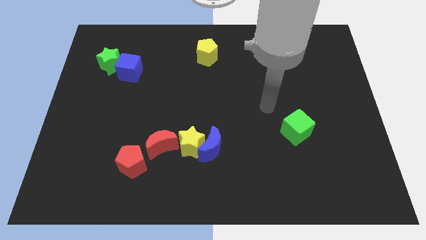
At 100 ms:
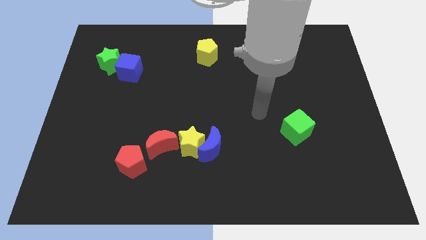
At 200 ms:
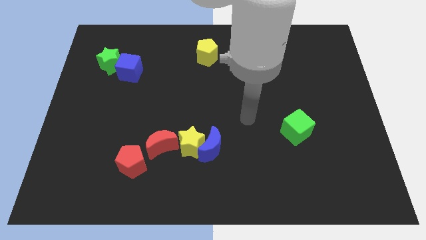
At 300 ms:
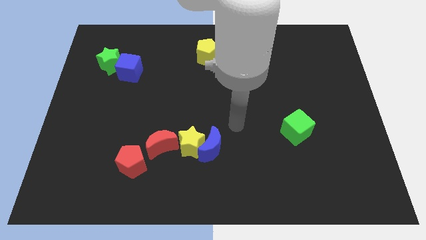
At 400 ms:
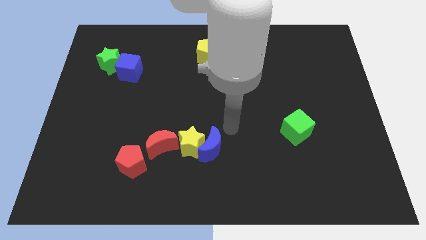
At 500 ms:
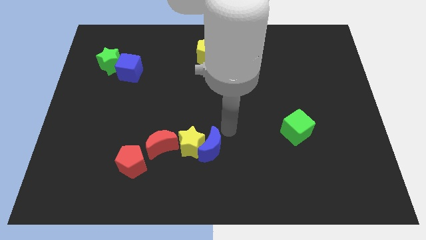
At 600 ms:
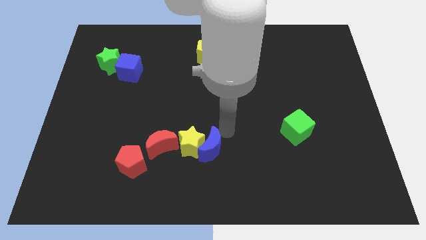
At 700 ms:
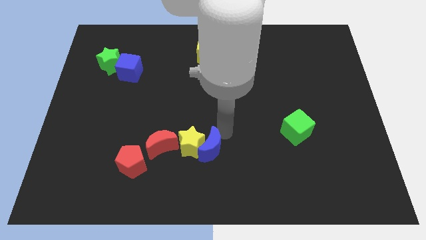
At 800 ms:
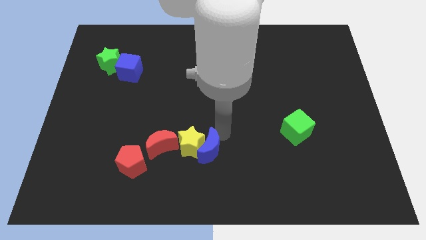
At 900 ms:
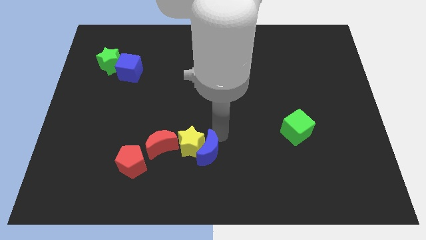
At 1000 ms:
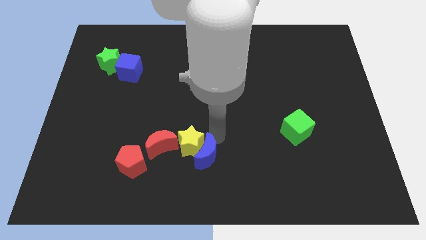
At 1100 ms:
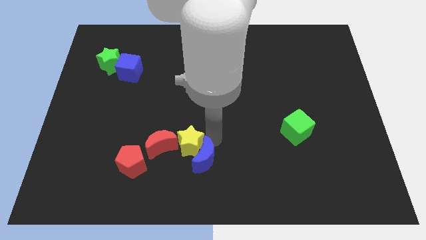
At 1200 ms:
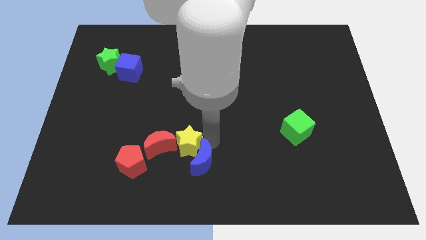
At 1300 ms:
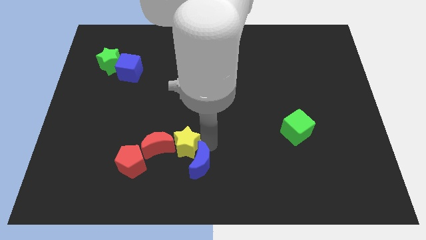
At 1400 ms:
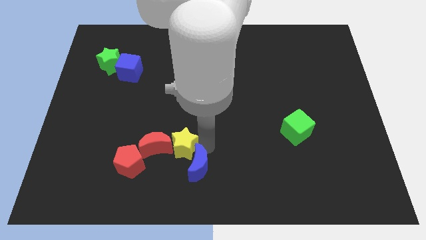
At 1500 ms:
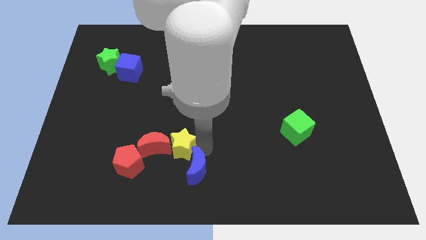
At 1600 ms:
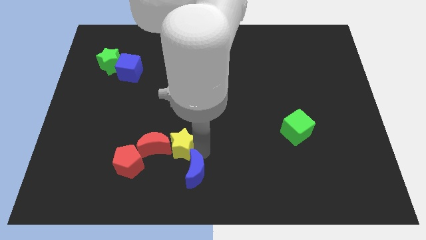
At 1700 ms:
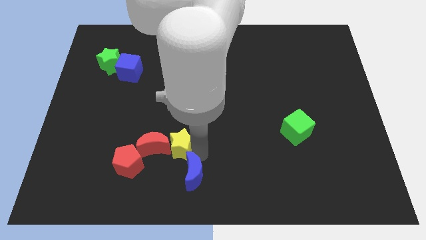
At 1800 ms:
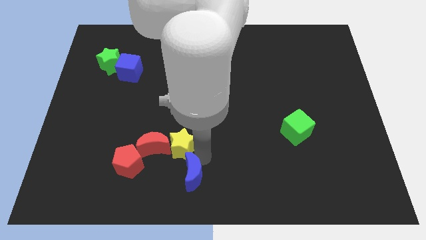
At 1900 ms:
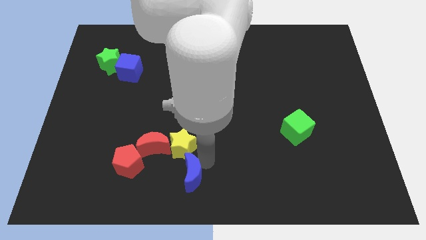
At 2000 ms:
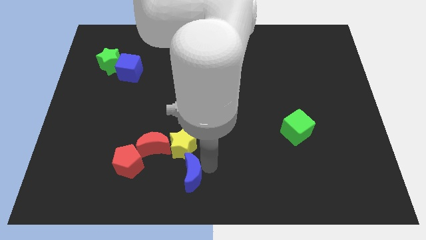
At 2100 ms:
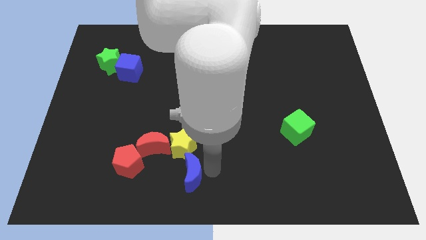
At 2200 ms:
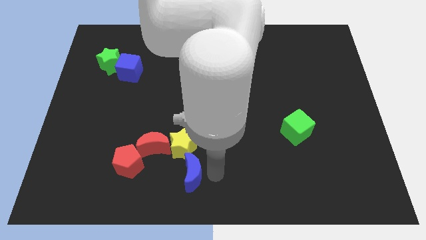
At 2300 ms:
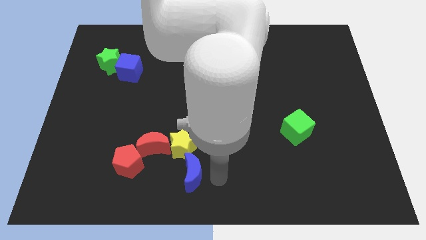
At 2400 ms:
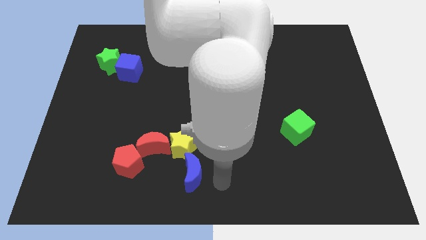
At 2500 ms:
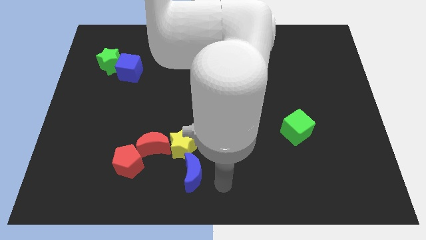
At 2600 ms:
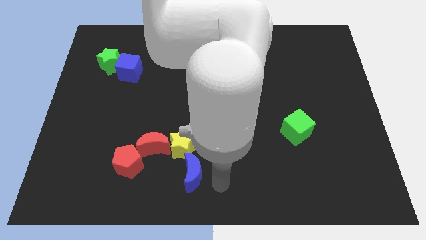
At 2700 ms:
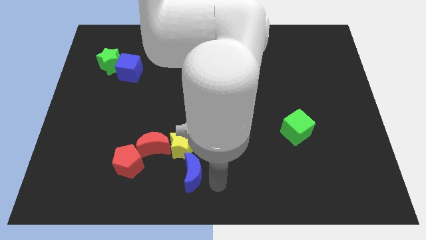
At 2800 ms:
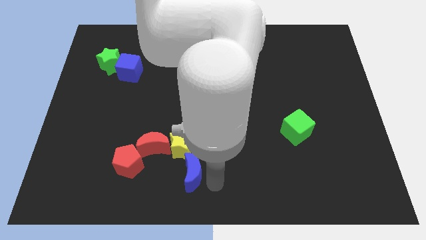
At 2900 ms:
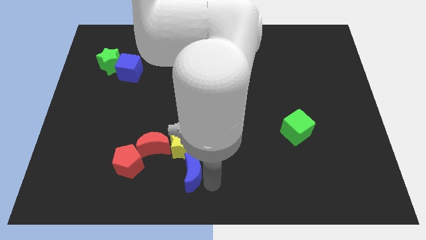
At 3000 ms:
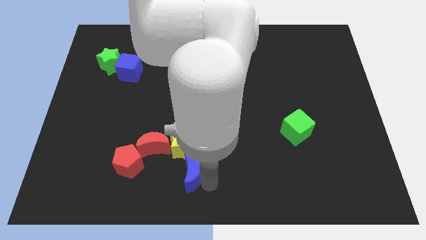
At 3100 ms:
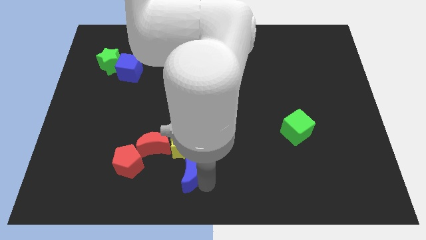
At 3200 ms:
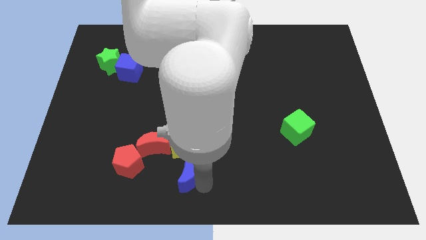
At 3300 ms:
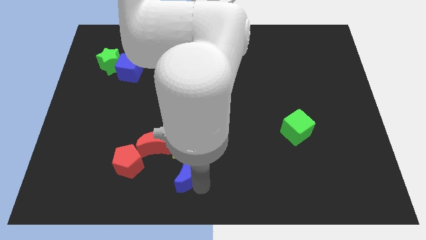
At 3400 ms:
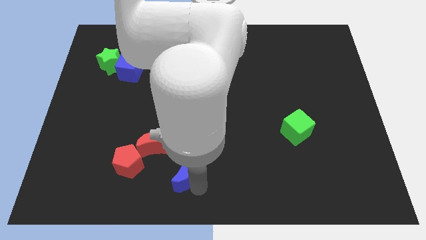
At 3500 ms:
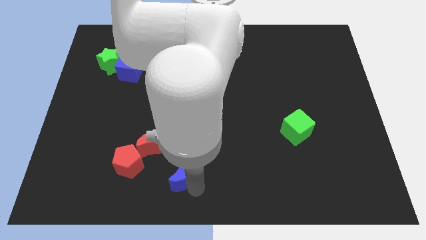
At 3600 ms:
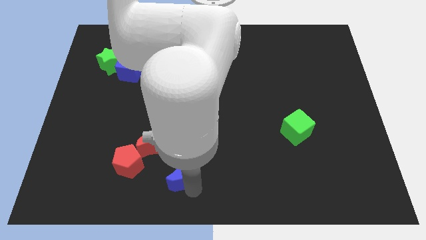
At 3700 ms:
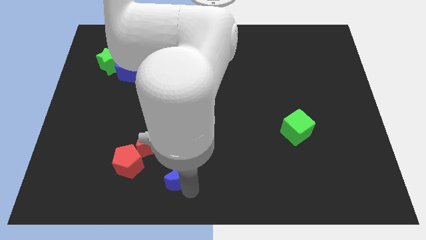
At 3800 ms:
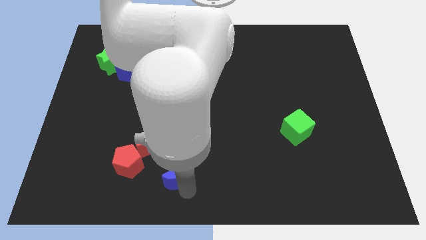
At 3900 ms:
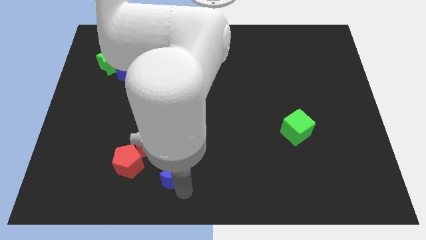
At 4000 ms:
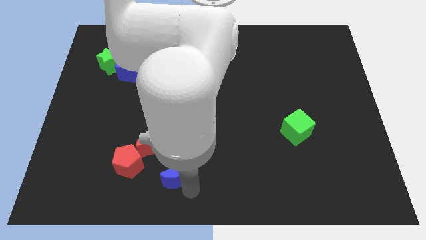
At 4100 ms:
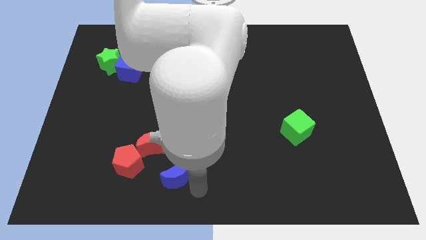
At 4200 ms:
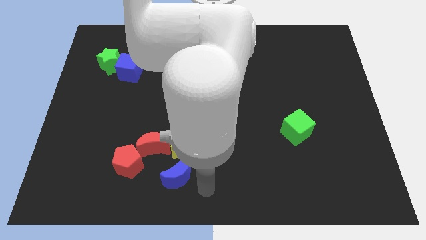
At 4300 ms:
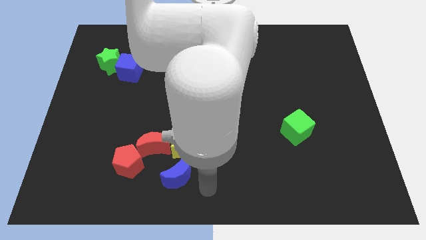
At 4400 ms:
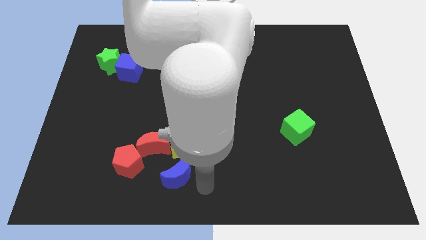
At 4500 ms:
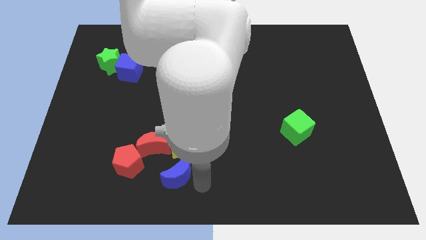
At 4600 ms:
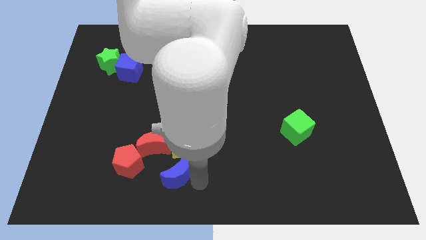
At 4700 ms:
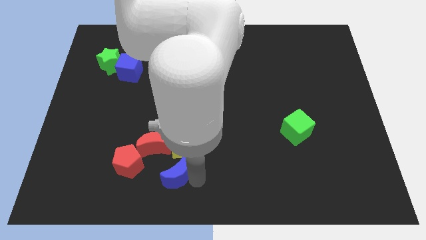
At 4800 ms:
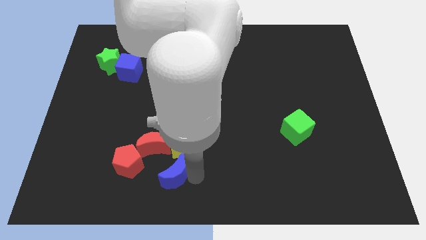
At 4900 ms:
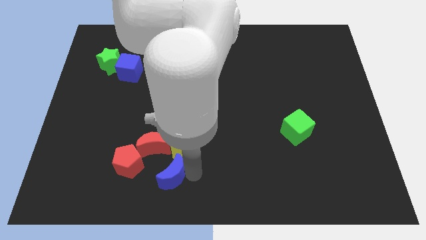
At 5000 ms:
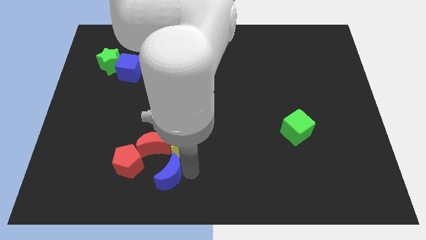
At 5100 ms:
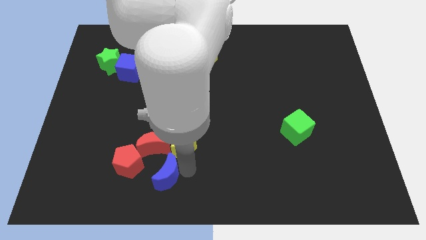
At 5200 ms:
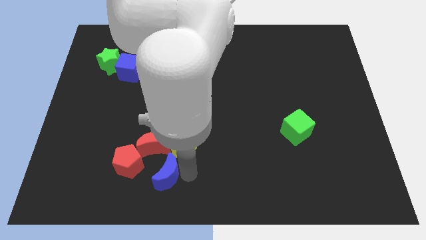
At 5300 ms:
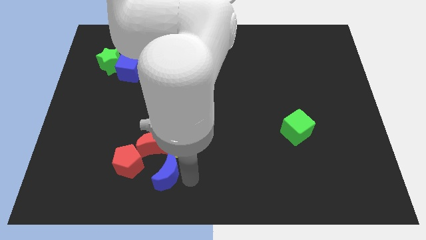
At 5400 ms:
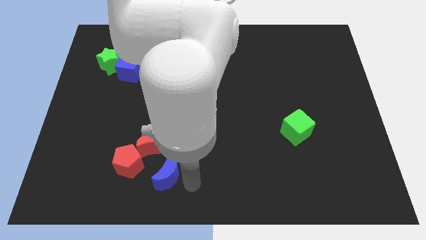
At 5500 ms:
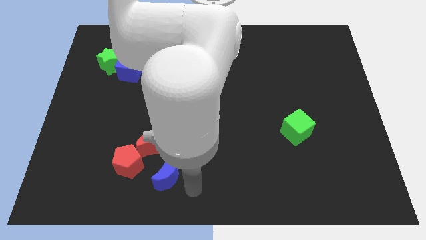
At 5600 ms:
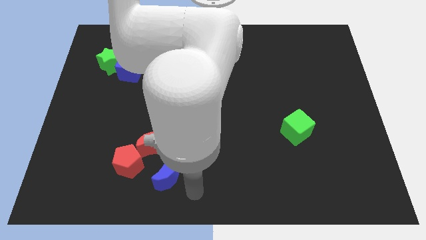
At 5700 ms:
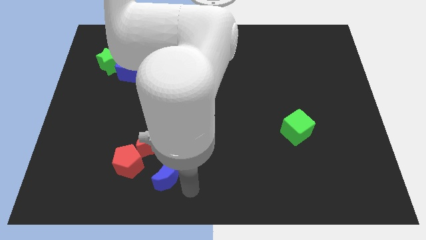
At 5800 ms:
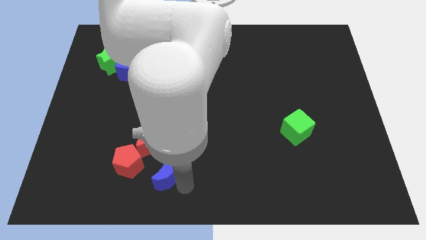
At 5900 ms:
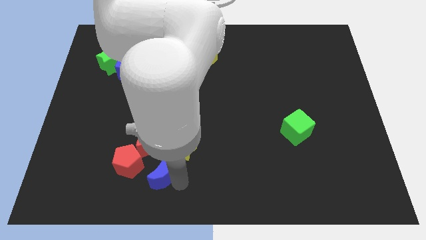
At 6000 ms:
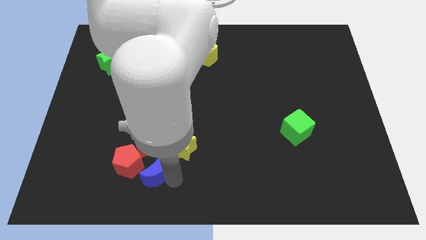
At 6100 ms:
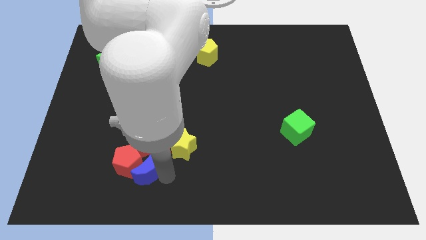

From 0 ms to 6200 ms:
put the blue moon towards the red pentagon

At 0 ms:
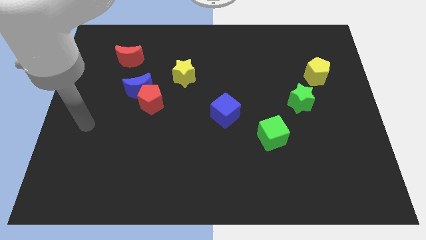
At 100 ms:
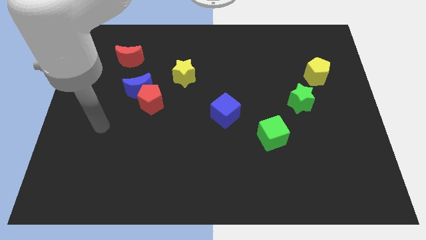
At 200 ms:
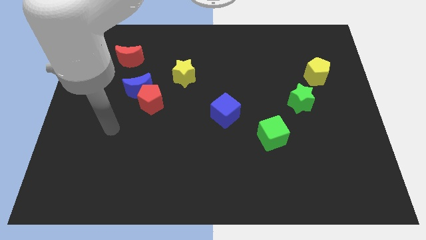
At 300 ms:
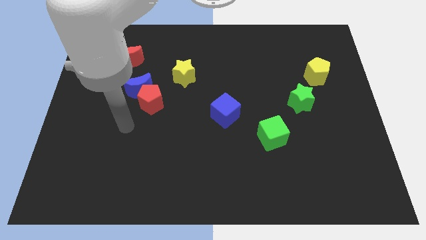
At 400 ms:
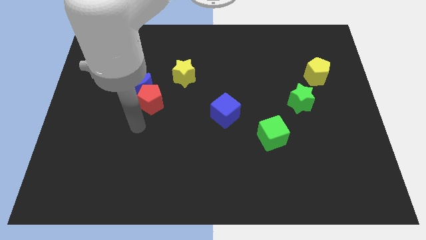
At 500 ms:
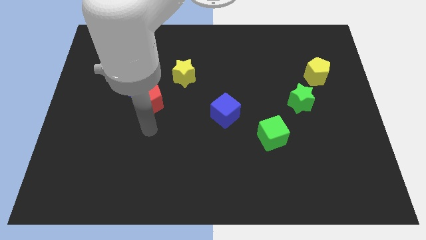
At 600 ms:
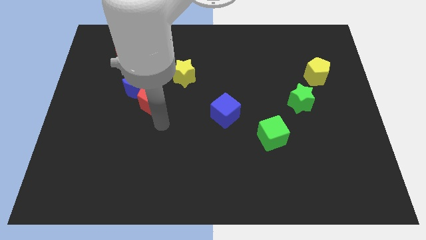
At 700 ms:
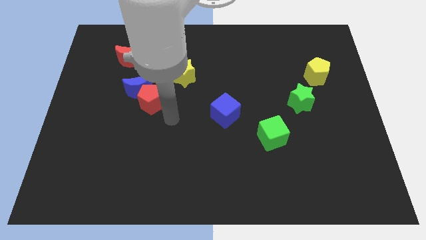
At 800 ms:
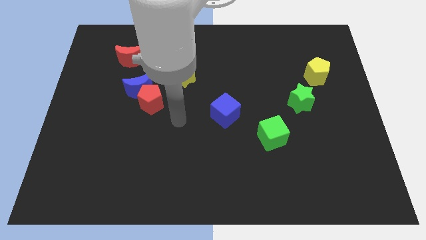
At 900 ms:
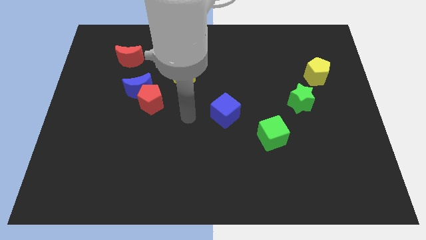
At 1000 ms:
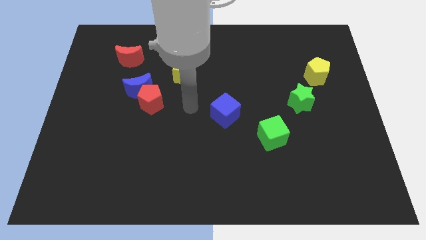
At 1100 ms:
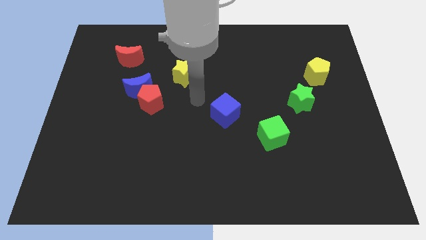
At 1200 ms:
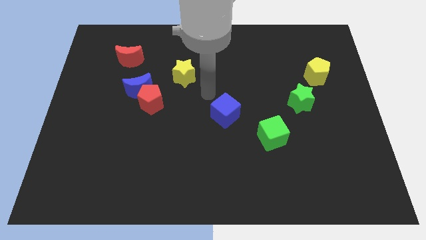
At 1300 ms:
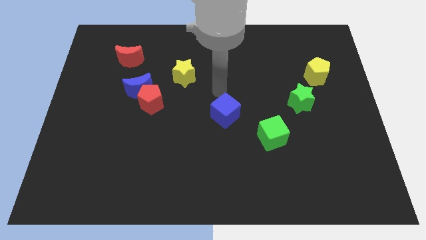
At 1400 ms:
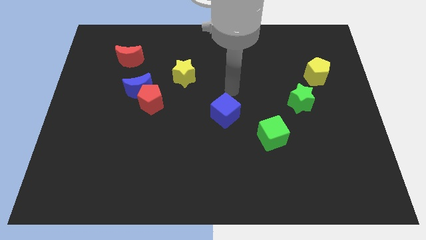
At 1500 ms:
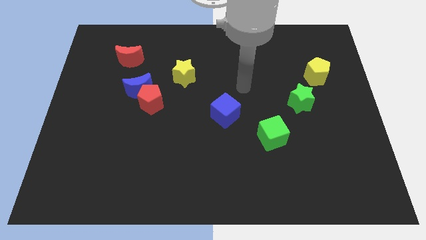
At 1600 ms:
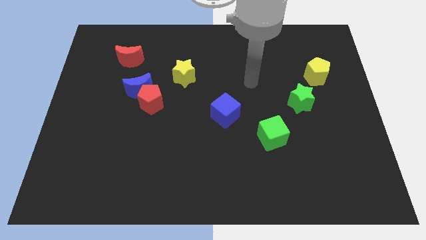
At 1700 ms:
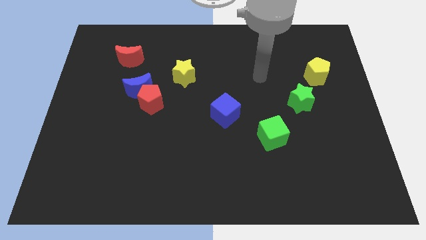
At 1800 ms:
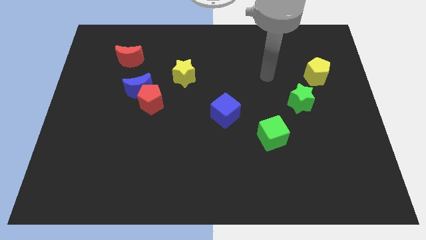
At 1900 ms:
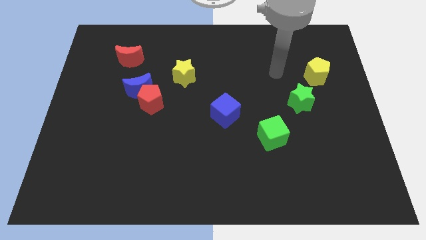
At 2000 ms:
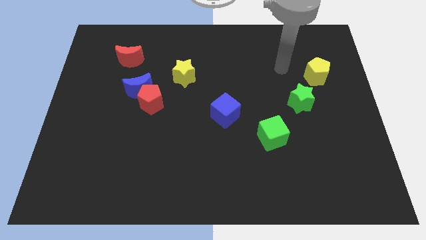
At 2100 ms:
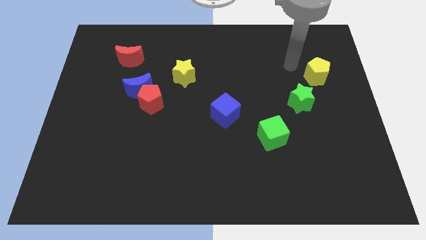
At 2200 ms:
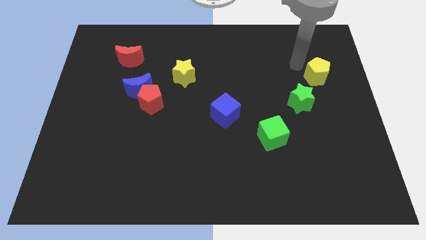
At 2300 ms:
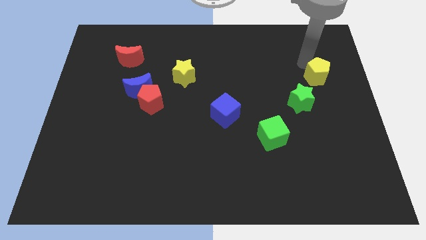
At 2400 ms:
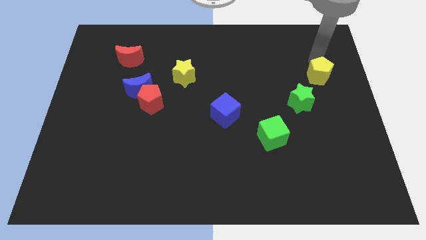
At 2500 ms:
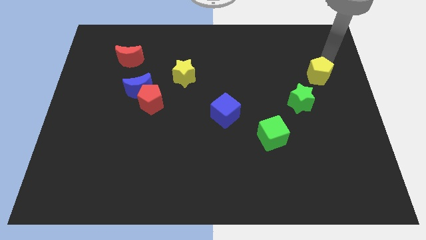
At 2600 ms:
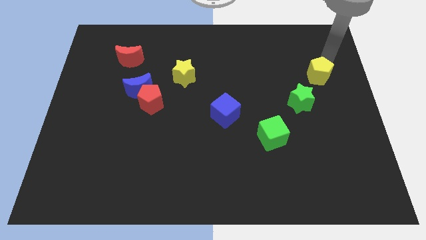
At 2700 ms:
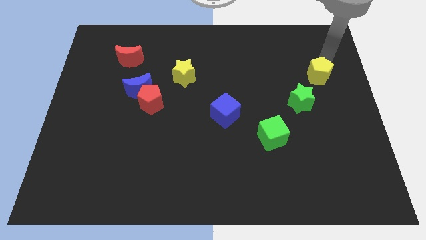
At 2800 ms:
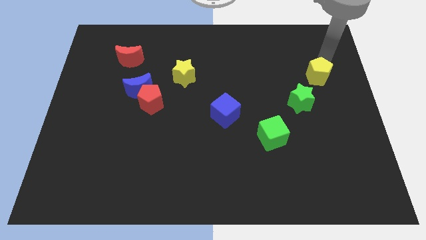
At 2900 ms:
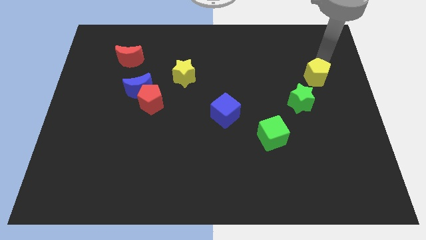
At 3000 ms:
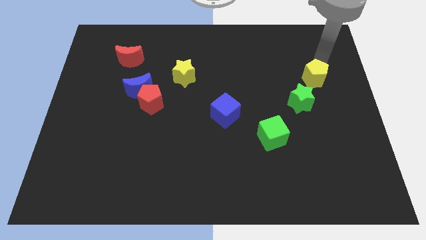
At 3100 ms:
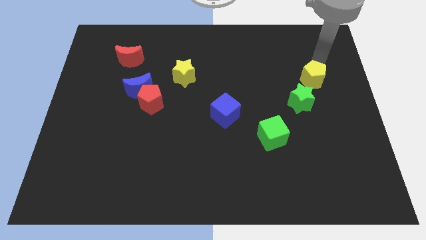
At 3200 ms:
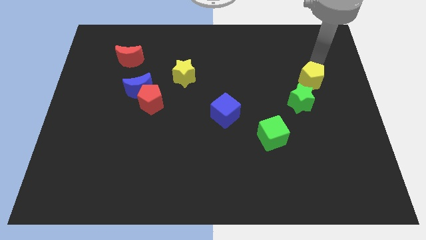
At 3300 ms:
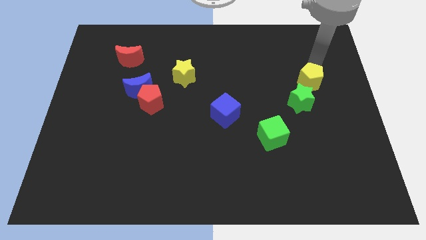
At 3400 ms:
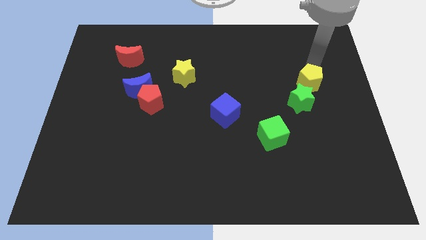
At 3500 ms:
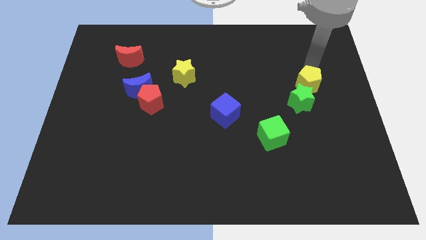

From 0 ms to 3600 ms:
push the yellow pentagon towards the green star
